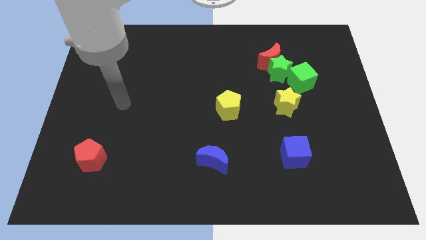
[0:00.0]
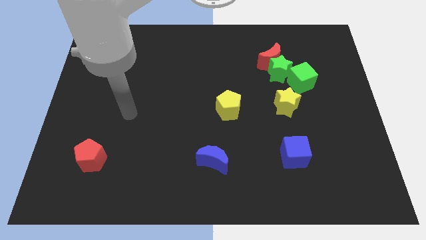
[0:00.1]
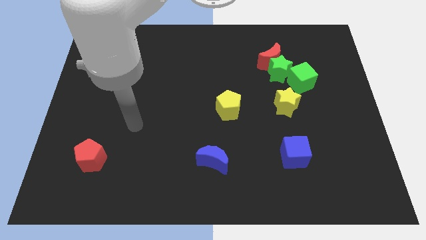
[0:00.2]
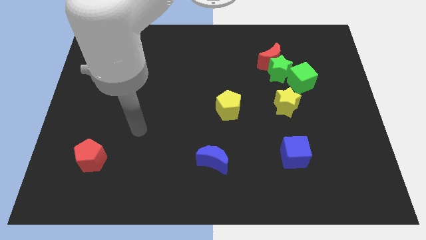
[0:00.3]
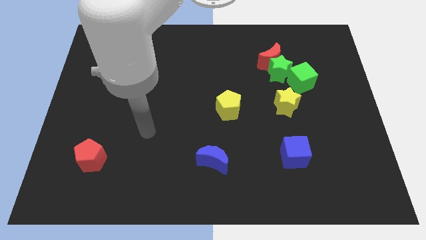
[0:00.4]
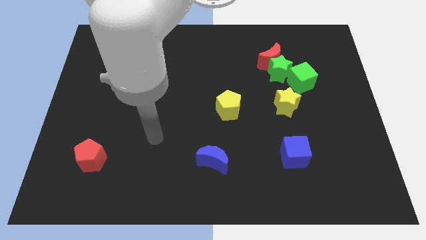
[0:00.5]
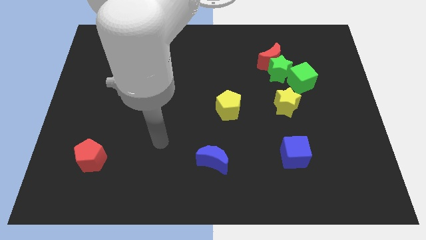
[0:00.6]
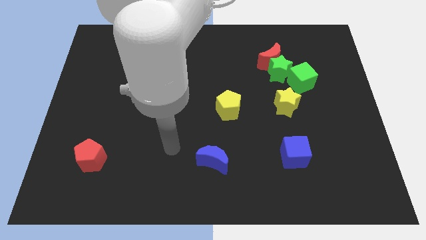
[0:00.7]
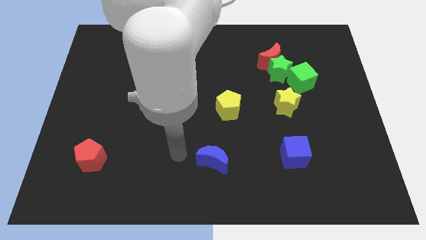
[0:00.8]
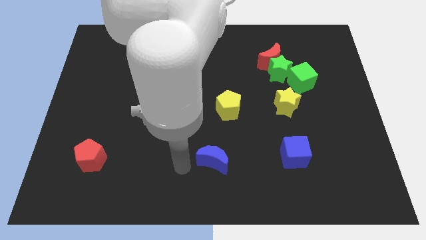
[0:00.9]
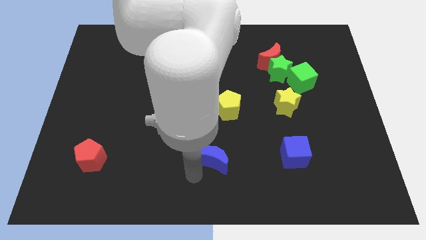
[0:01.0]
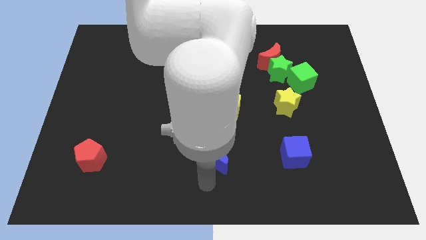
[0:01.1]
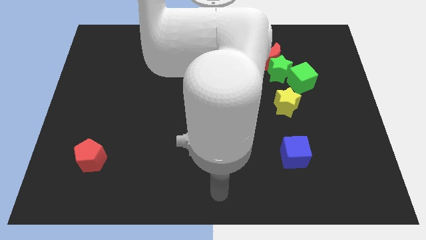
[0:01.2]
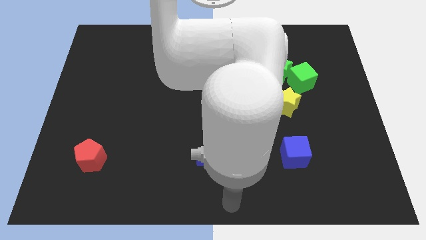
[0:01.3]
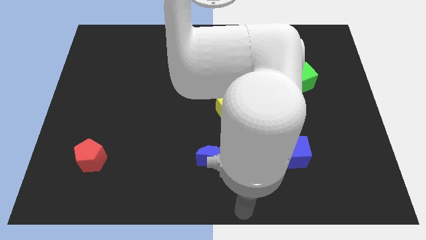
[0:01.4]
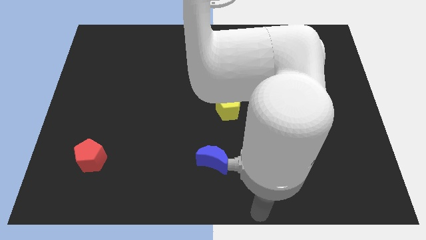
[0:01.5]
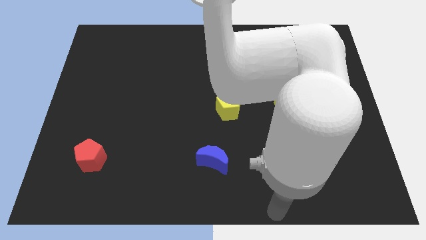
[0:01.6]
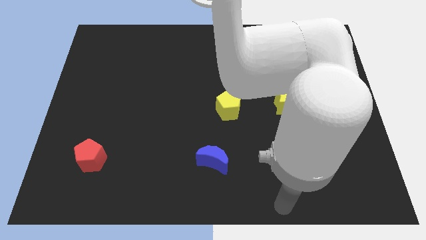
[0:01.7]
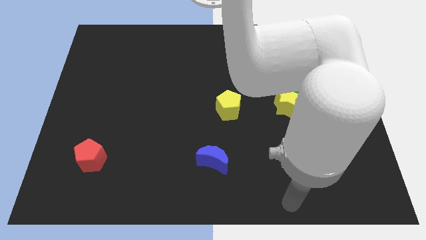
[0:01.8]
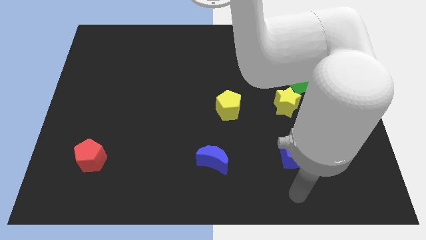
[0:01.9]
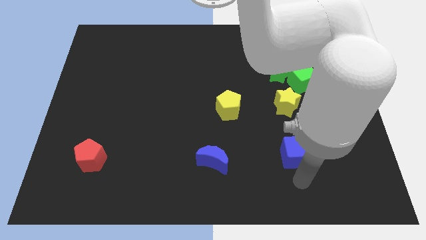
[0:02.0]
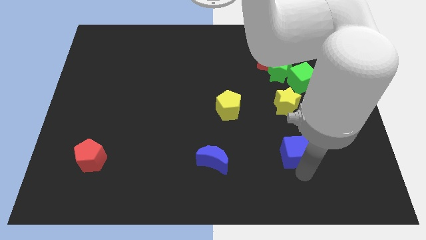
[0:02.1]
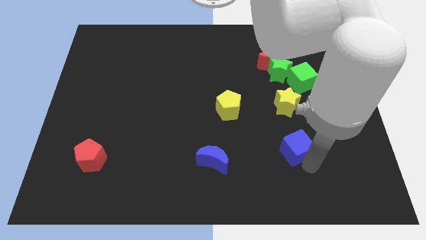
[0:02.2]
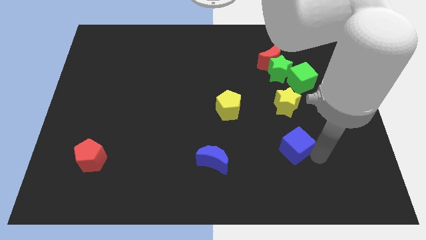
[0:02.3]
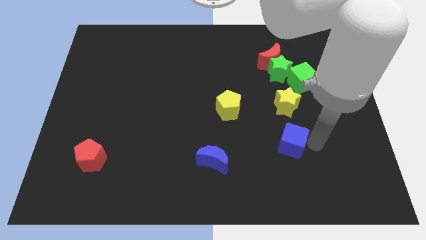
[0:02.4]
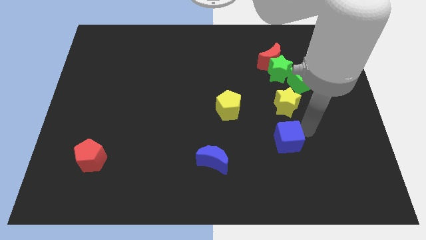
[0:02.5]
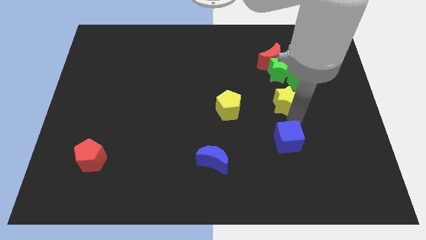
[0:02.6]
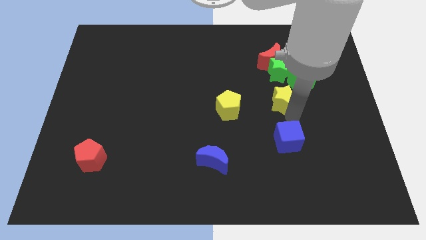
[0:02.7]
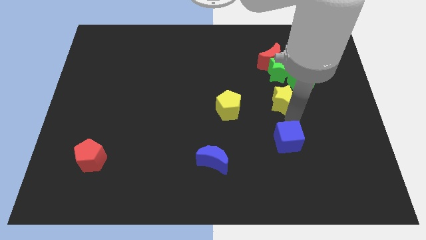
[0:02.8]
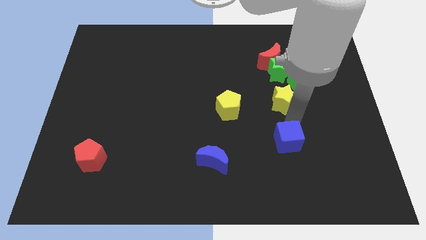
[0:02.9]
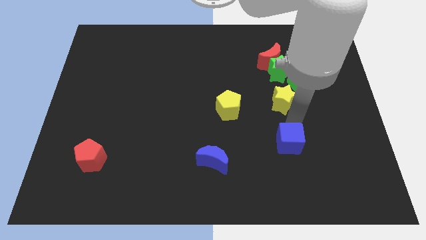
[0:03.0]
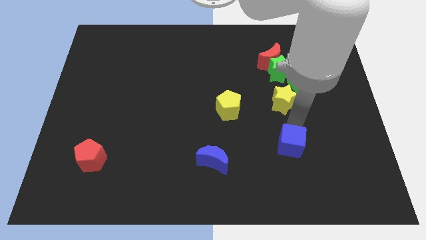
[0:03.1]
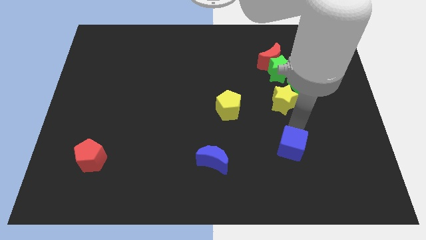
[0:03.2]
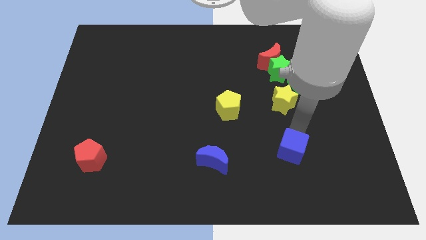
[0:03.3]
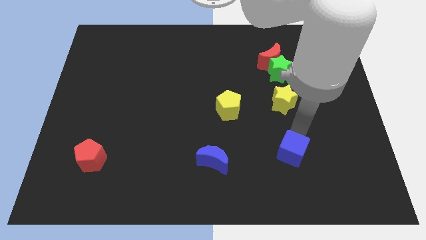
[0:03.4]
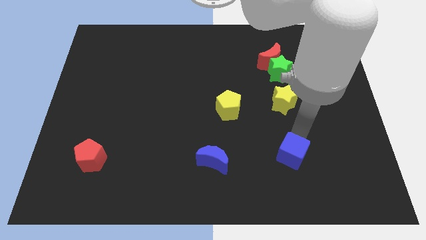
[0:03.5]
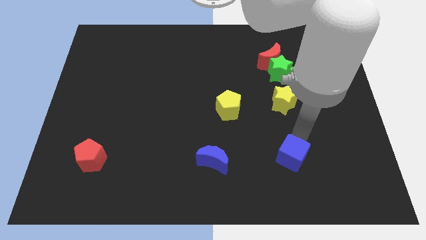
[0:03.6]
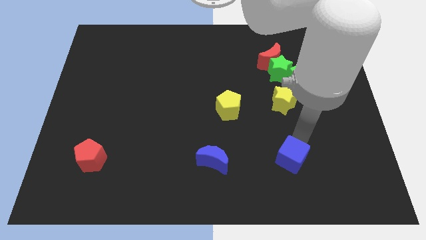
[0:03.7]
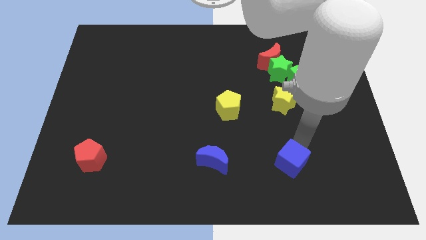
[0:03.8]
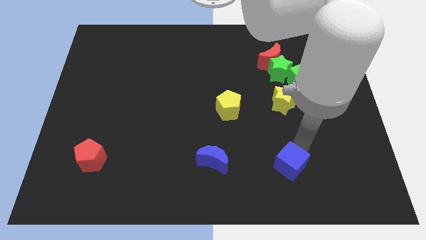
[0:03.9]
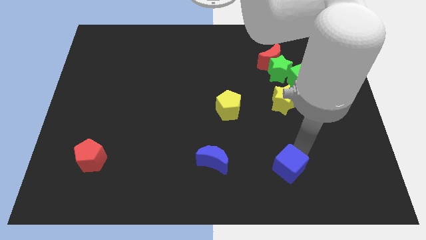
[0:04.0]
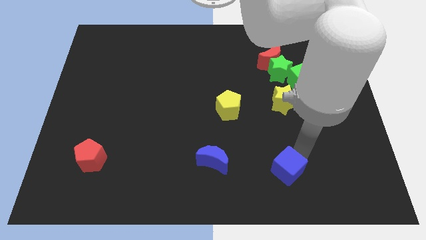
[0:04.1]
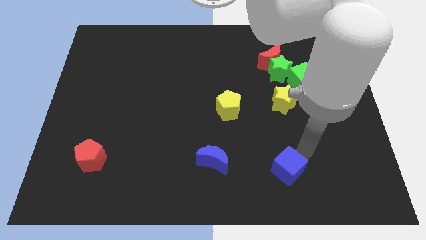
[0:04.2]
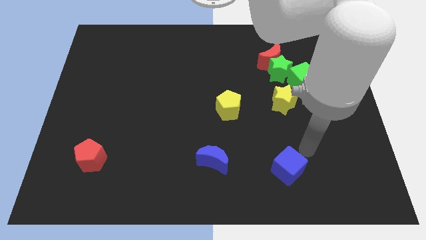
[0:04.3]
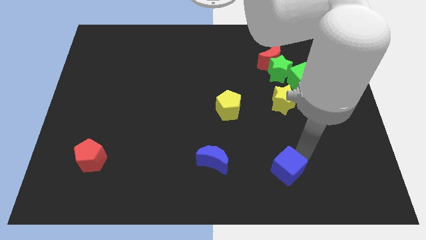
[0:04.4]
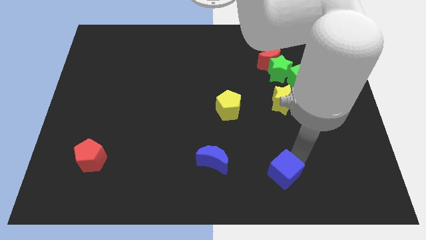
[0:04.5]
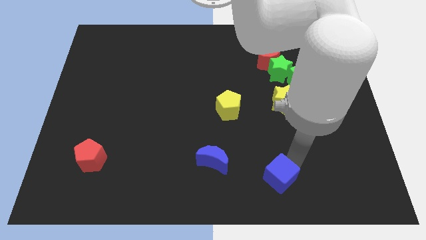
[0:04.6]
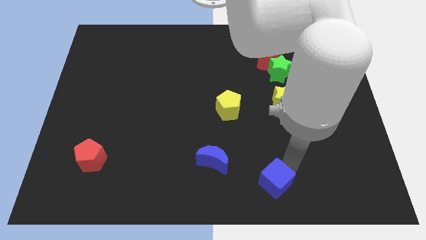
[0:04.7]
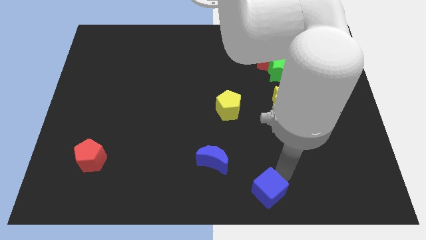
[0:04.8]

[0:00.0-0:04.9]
put the blue cube to the bottom

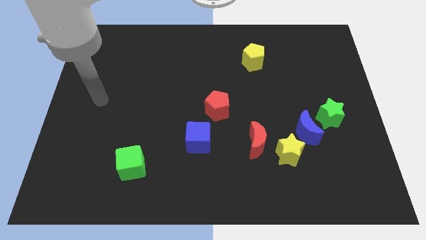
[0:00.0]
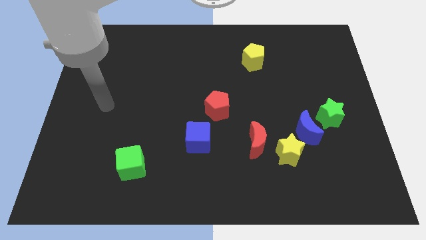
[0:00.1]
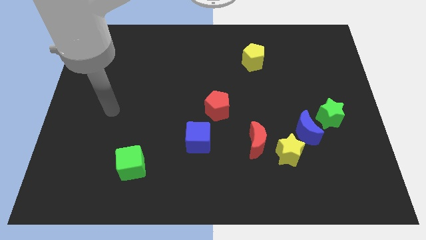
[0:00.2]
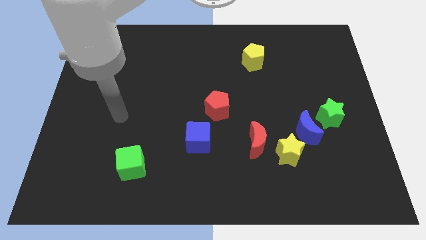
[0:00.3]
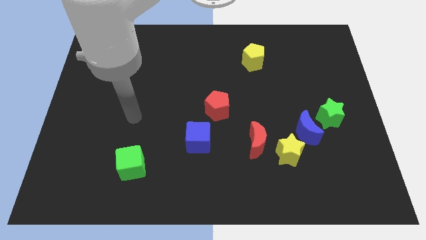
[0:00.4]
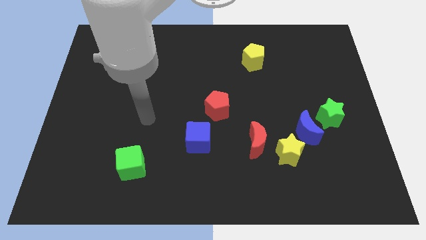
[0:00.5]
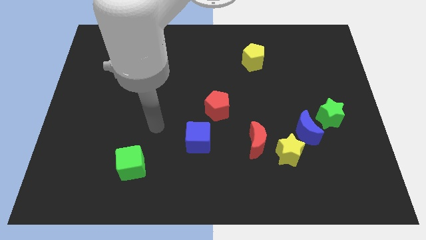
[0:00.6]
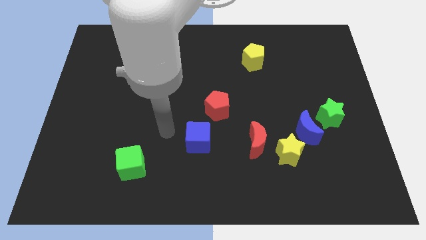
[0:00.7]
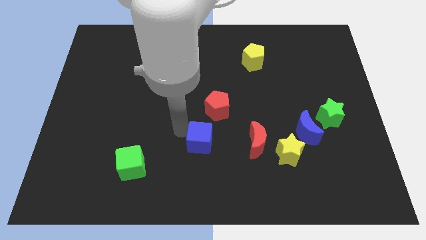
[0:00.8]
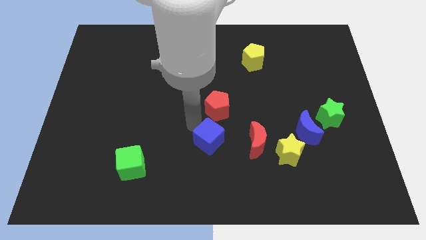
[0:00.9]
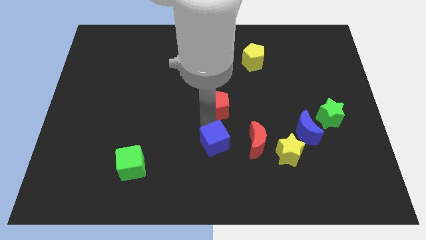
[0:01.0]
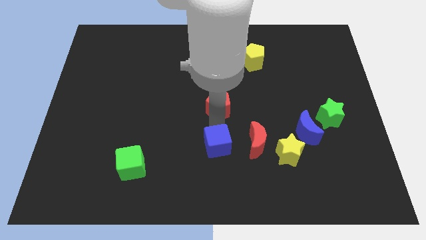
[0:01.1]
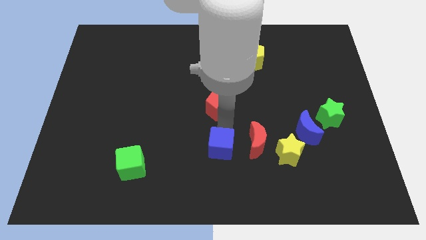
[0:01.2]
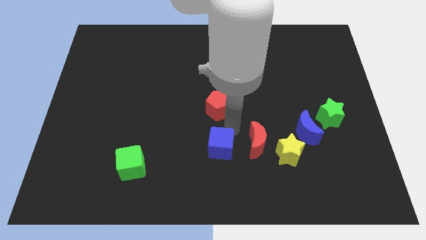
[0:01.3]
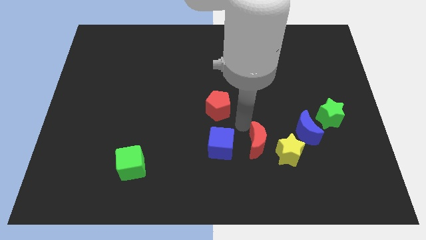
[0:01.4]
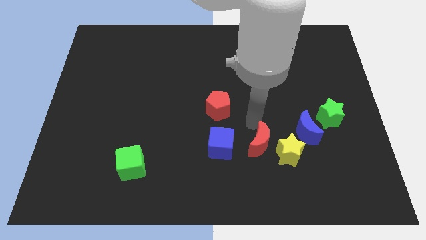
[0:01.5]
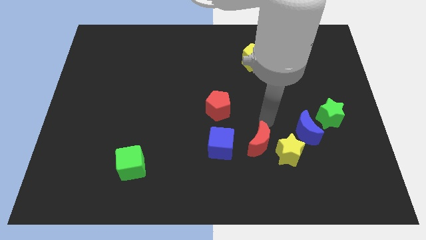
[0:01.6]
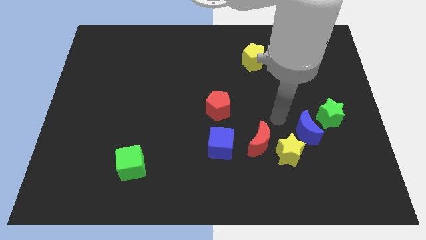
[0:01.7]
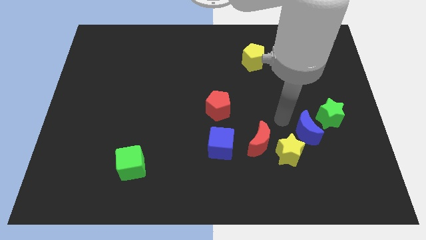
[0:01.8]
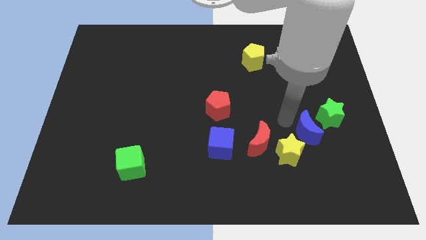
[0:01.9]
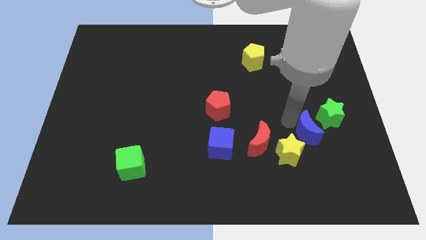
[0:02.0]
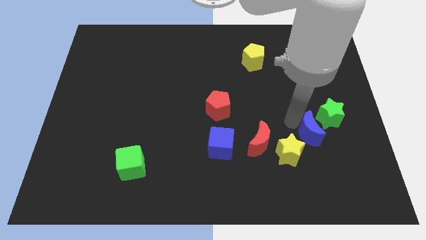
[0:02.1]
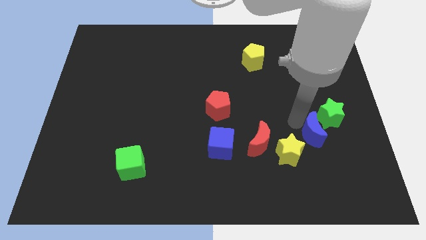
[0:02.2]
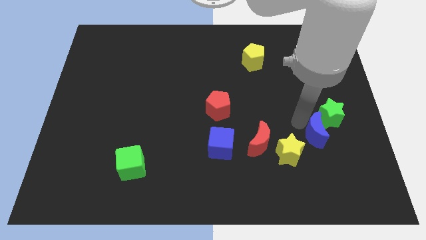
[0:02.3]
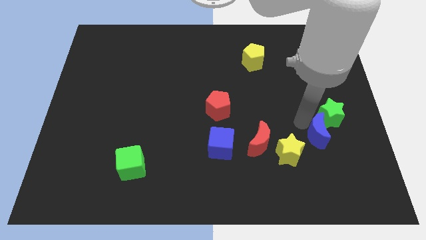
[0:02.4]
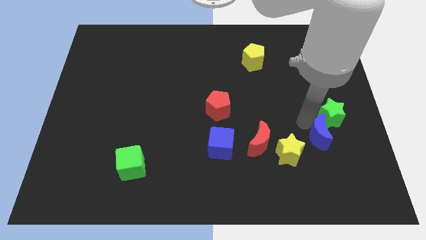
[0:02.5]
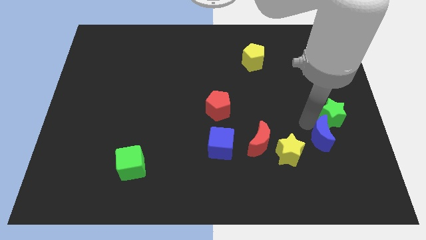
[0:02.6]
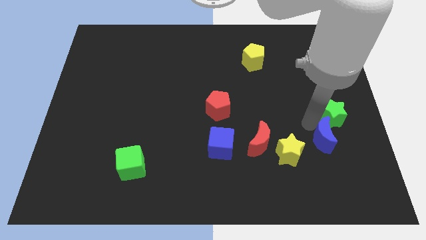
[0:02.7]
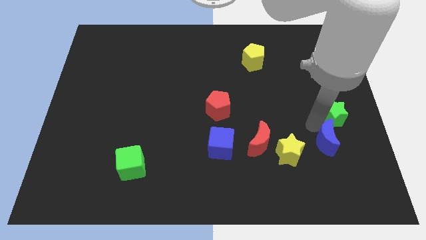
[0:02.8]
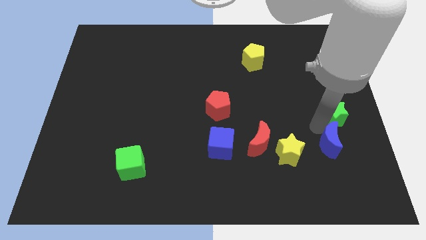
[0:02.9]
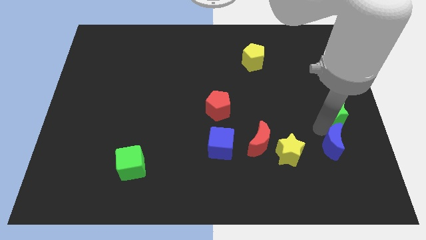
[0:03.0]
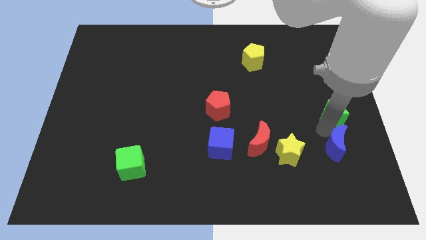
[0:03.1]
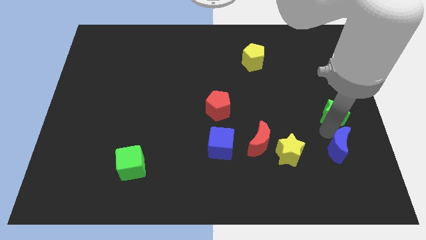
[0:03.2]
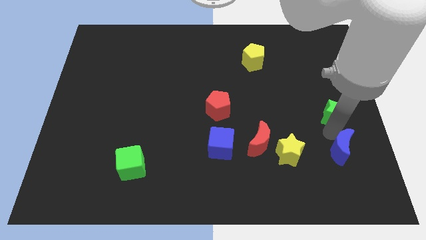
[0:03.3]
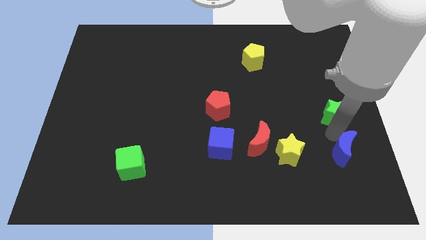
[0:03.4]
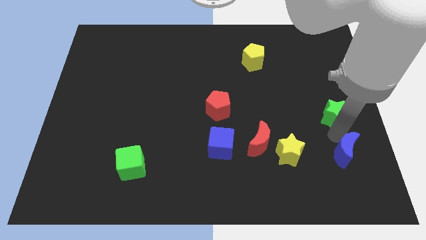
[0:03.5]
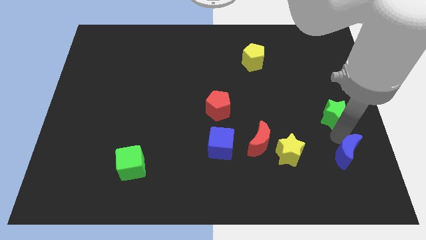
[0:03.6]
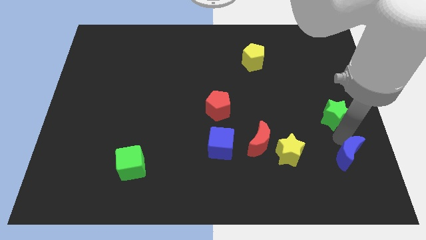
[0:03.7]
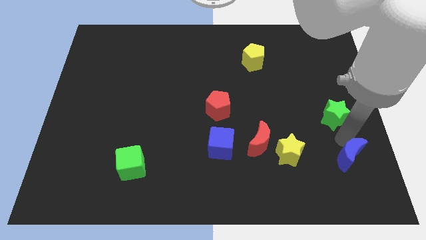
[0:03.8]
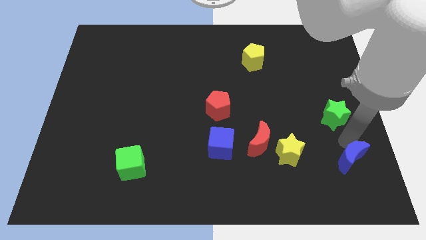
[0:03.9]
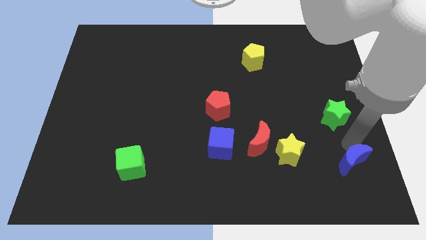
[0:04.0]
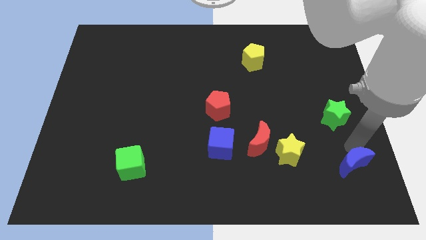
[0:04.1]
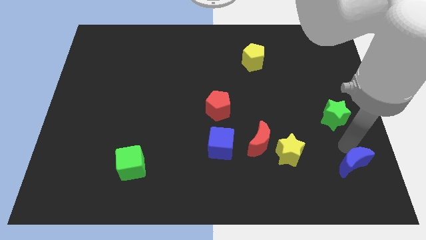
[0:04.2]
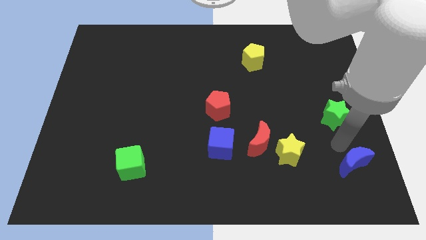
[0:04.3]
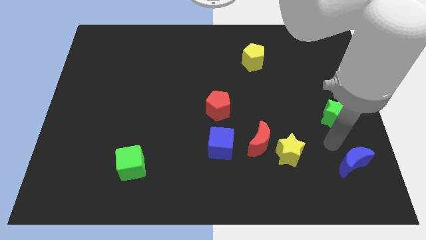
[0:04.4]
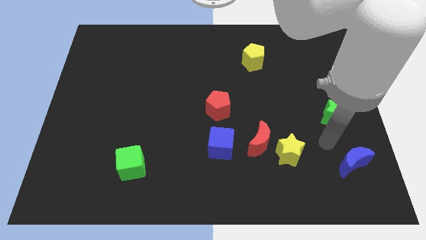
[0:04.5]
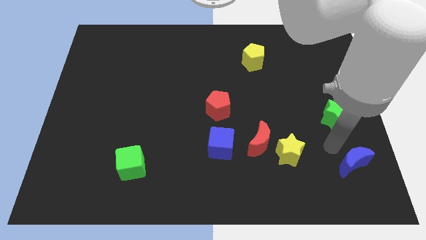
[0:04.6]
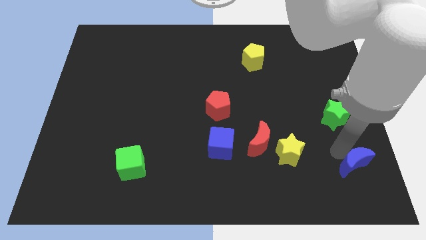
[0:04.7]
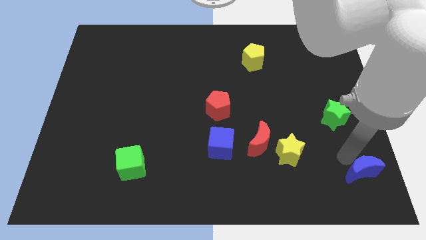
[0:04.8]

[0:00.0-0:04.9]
push the blue moon to the bottom right
